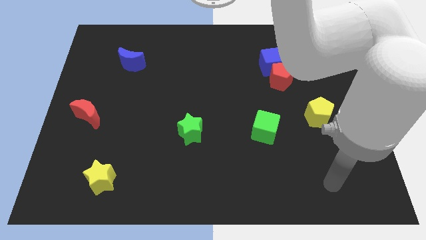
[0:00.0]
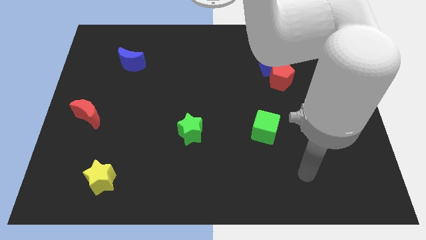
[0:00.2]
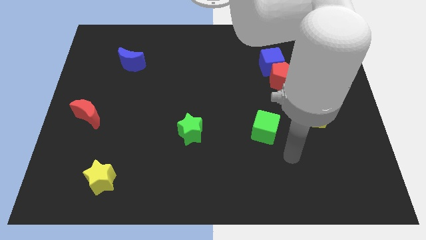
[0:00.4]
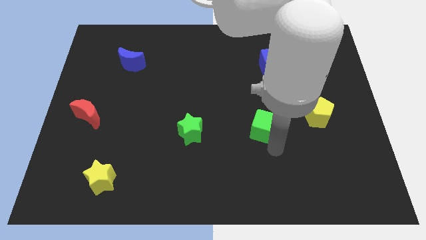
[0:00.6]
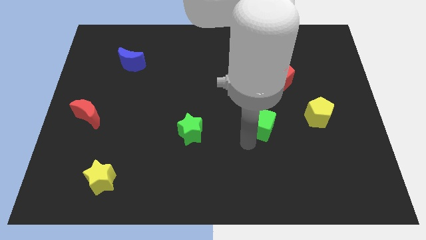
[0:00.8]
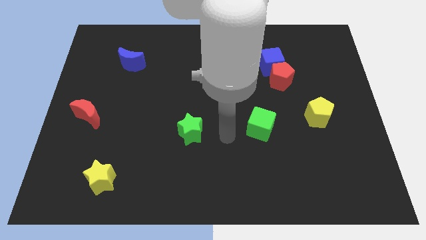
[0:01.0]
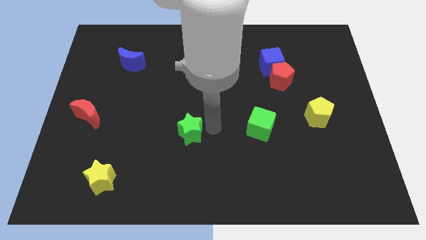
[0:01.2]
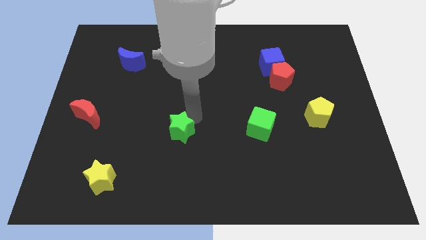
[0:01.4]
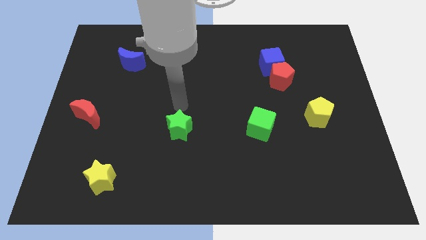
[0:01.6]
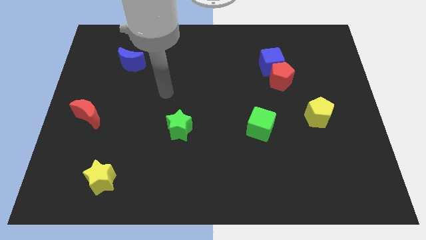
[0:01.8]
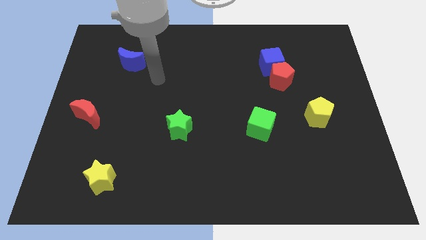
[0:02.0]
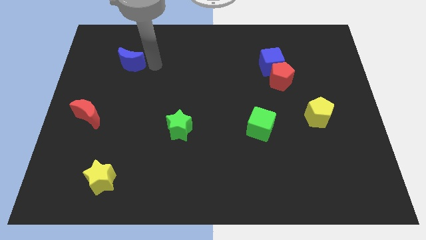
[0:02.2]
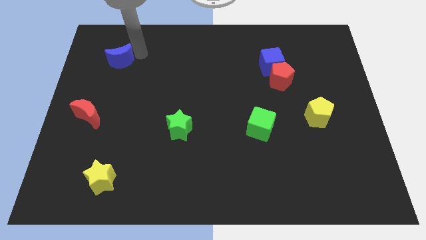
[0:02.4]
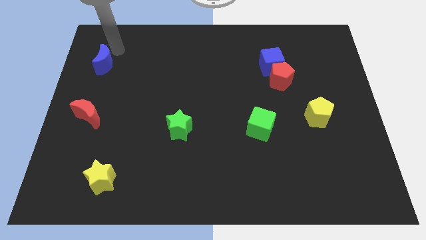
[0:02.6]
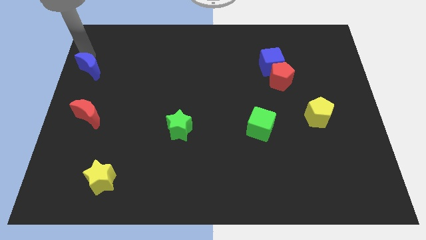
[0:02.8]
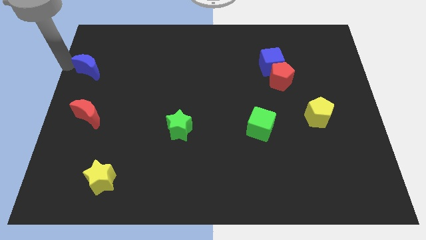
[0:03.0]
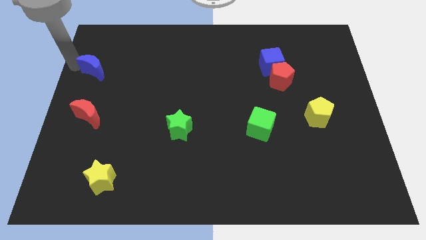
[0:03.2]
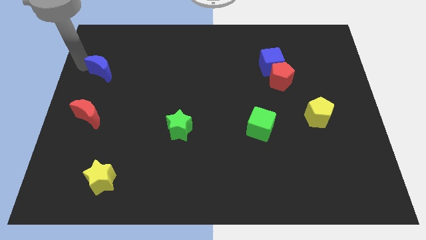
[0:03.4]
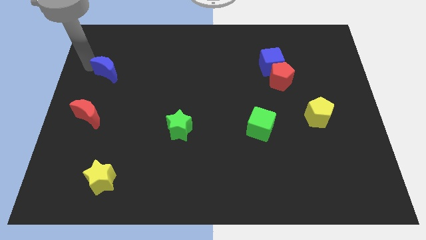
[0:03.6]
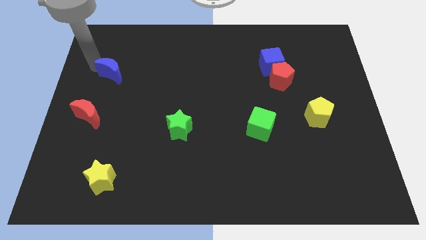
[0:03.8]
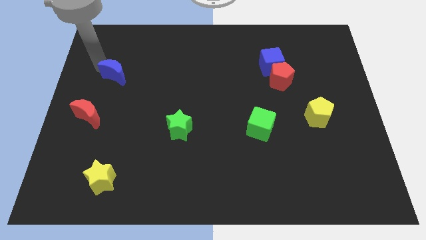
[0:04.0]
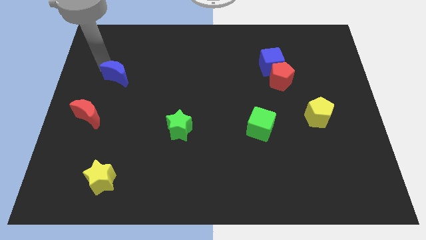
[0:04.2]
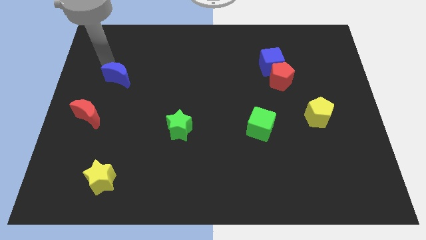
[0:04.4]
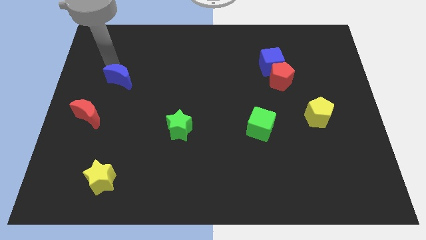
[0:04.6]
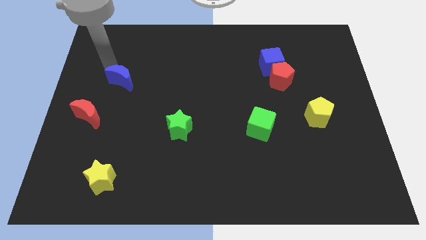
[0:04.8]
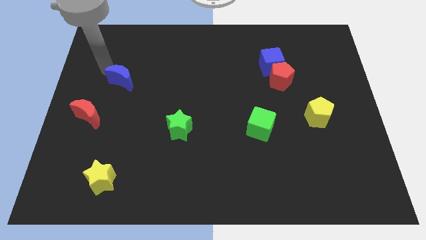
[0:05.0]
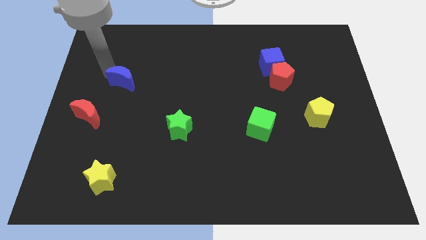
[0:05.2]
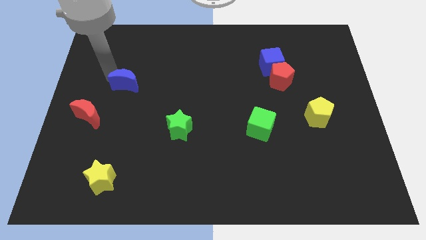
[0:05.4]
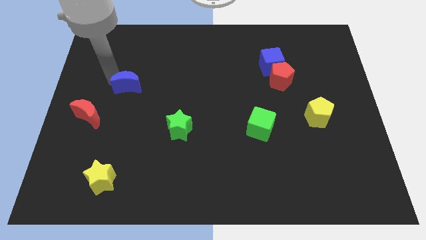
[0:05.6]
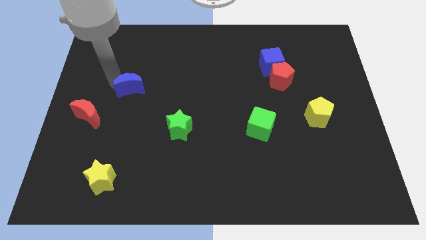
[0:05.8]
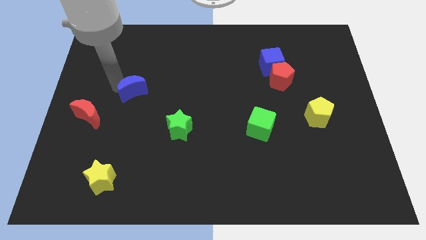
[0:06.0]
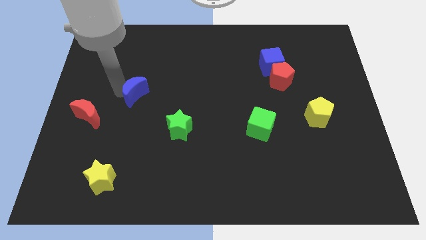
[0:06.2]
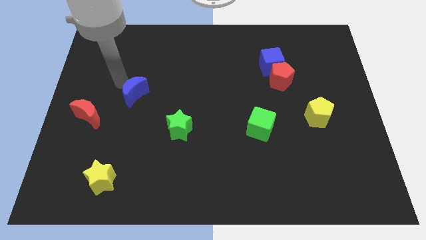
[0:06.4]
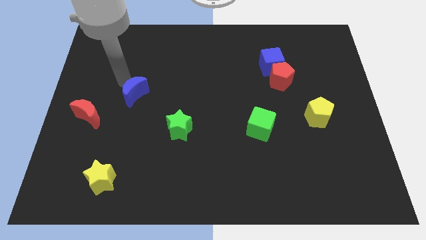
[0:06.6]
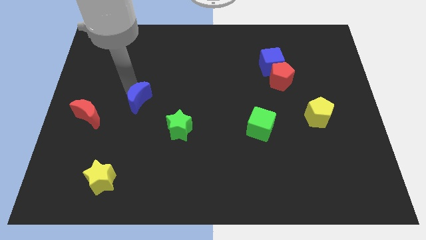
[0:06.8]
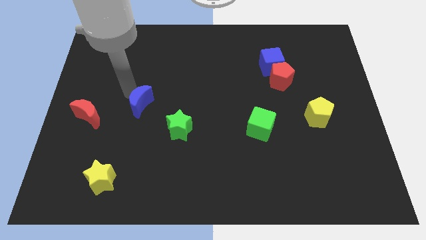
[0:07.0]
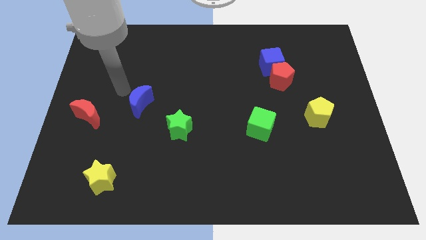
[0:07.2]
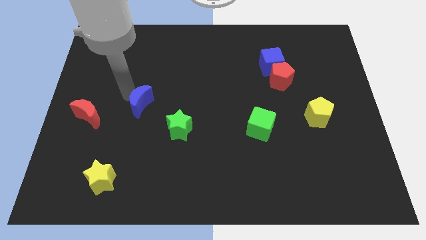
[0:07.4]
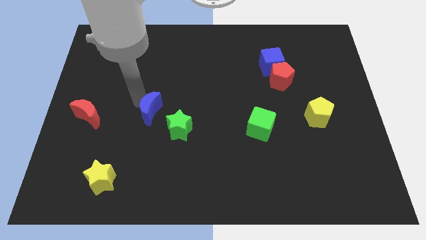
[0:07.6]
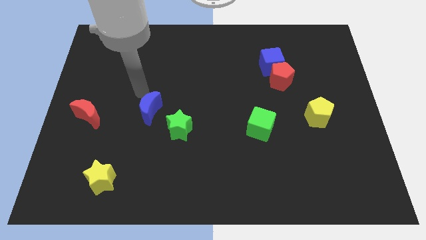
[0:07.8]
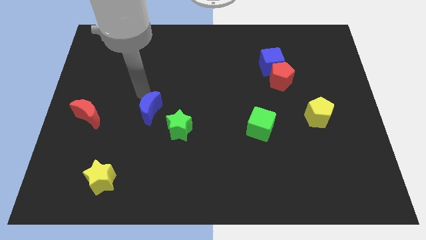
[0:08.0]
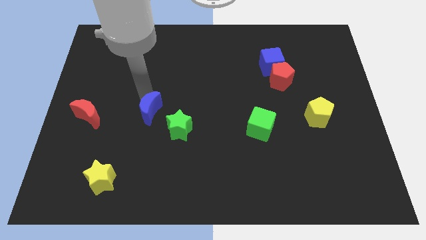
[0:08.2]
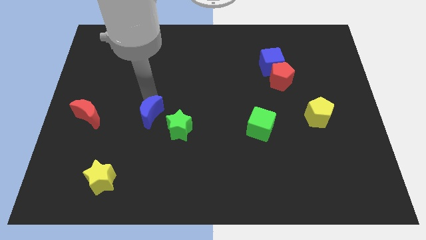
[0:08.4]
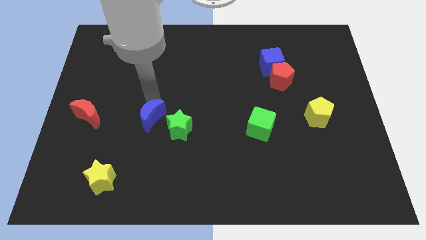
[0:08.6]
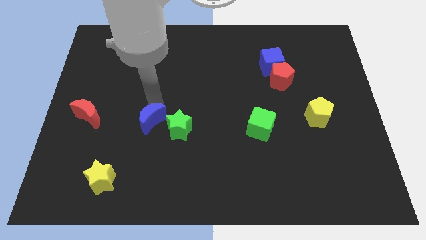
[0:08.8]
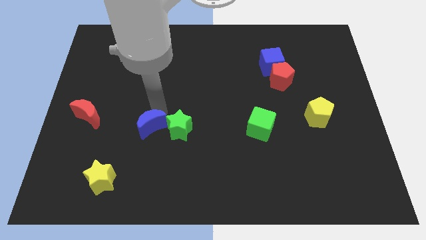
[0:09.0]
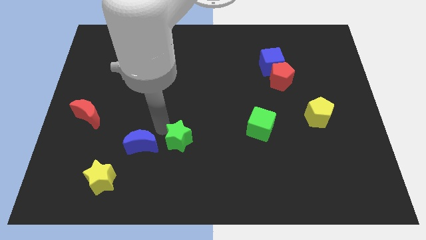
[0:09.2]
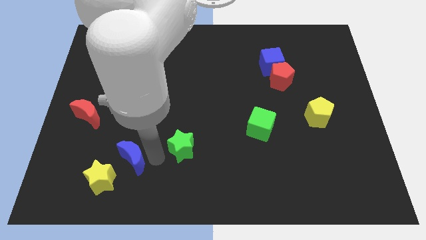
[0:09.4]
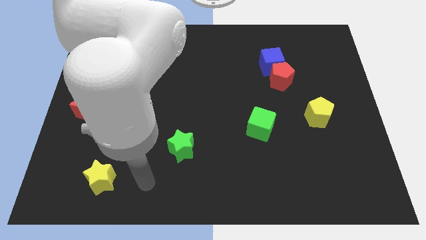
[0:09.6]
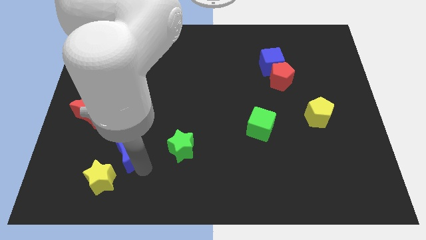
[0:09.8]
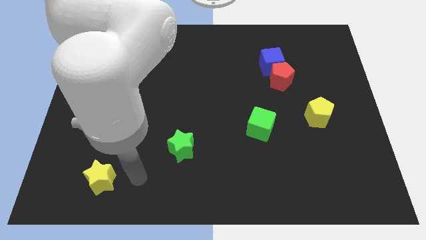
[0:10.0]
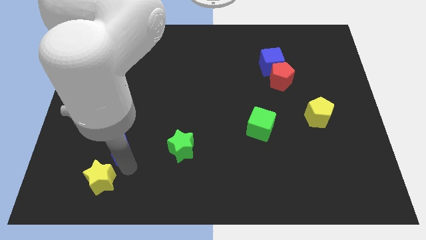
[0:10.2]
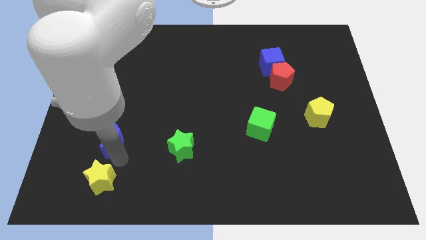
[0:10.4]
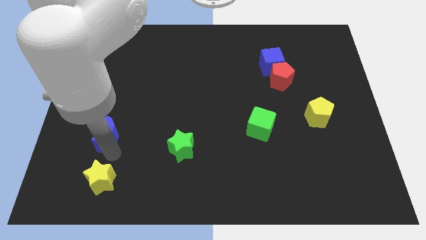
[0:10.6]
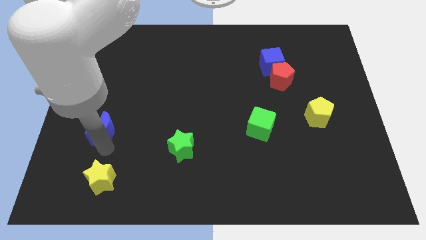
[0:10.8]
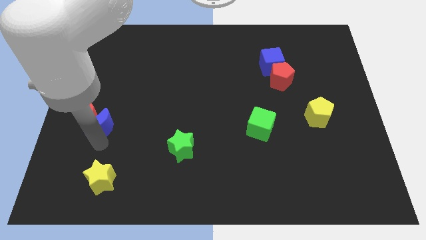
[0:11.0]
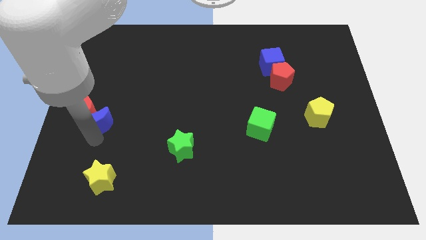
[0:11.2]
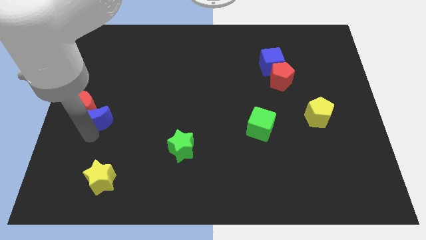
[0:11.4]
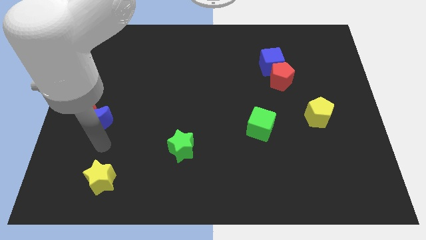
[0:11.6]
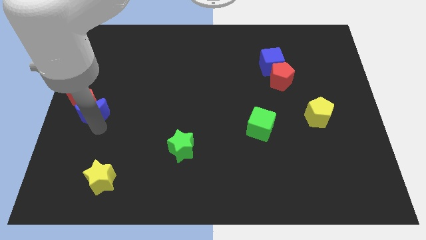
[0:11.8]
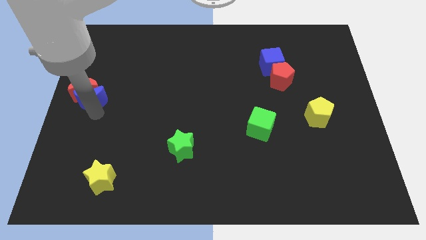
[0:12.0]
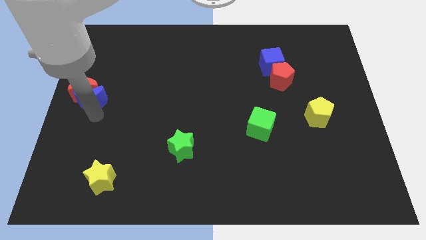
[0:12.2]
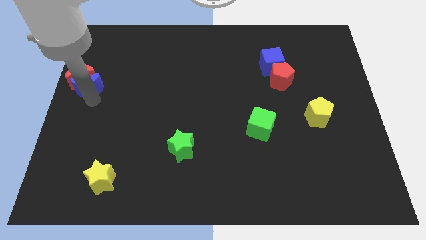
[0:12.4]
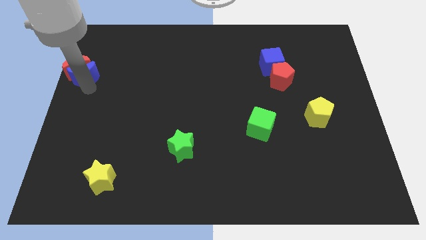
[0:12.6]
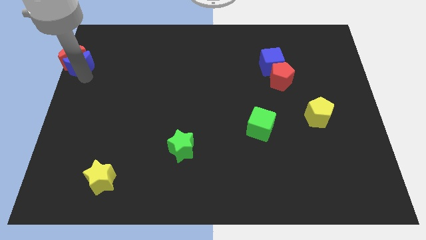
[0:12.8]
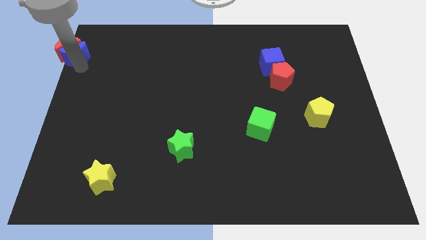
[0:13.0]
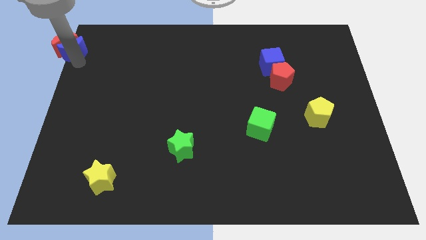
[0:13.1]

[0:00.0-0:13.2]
push the blue moon to the upper left corner
